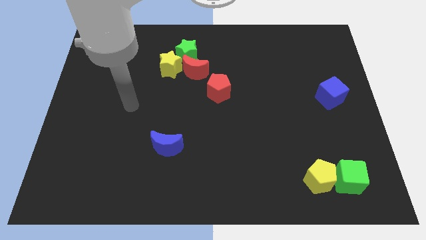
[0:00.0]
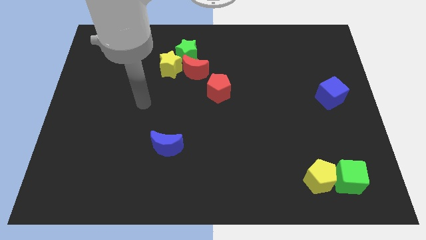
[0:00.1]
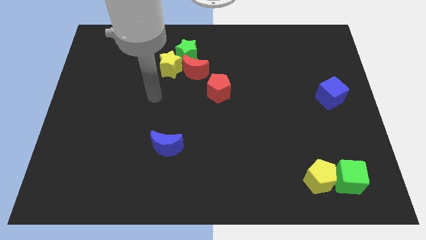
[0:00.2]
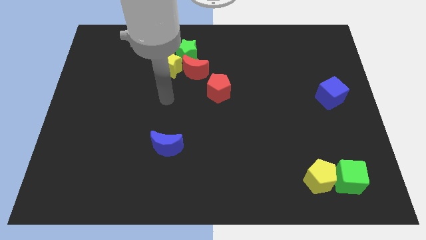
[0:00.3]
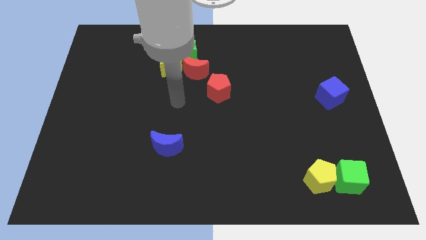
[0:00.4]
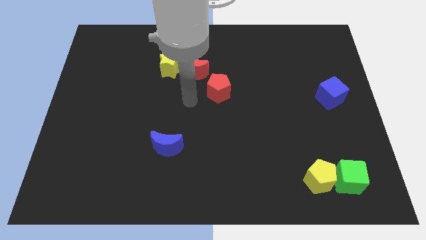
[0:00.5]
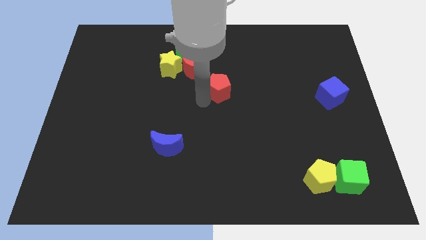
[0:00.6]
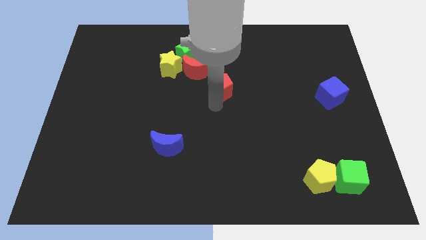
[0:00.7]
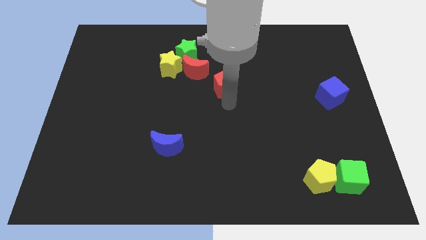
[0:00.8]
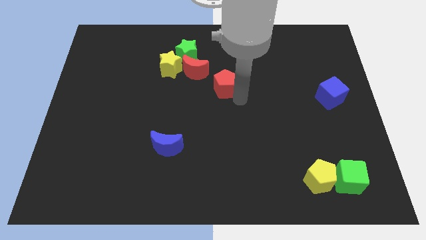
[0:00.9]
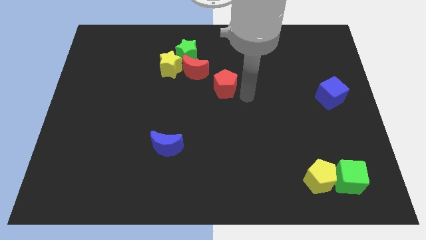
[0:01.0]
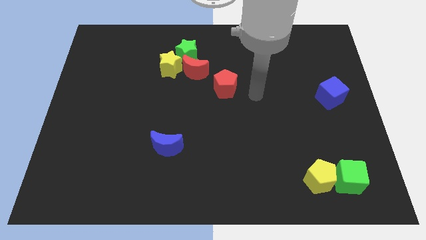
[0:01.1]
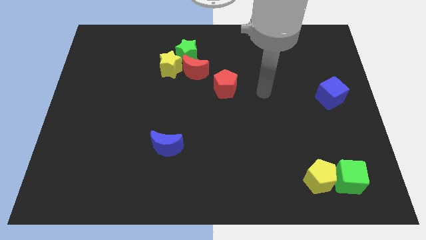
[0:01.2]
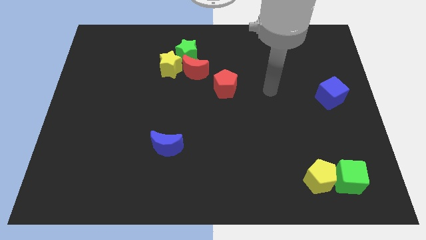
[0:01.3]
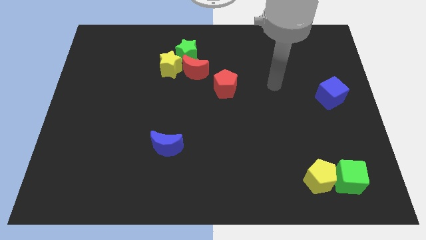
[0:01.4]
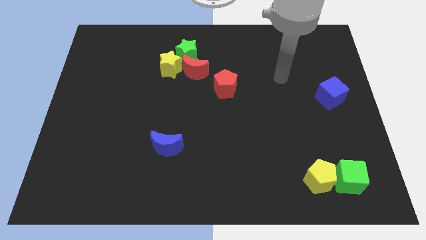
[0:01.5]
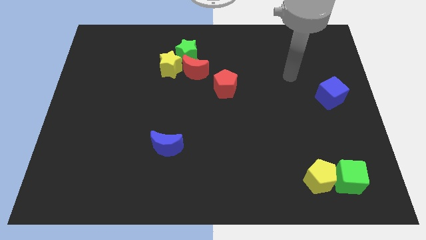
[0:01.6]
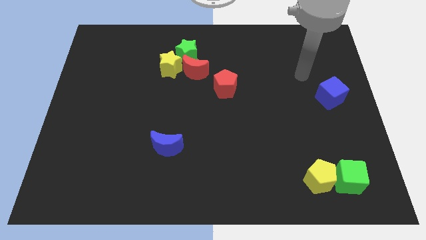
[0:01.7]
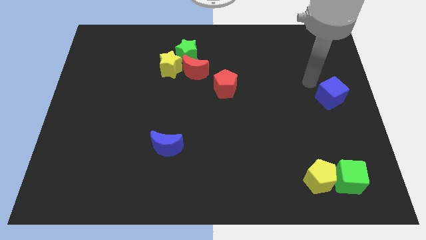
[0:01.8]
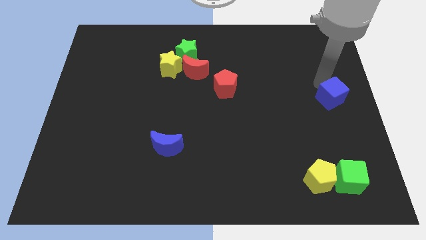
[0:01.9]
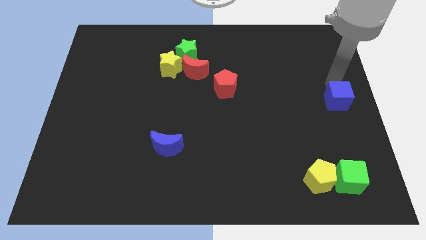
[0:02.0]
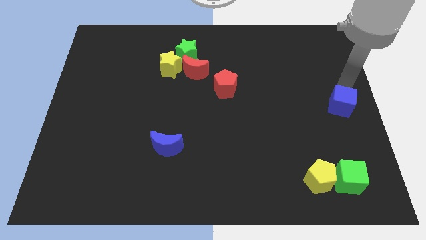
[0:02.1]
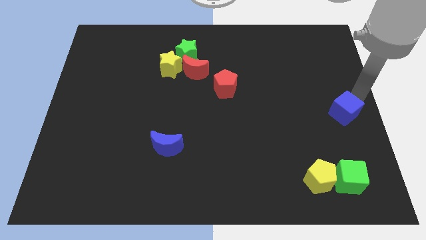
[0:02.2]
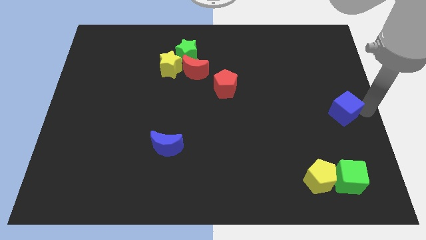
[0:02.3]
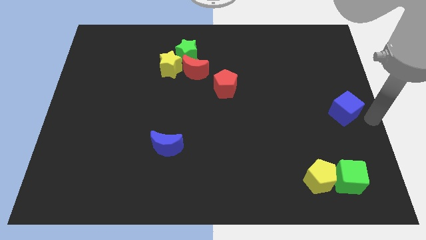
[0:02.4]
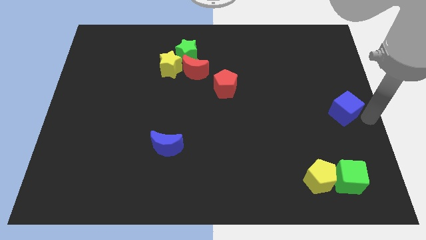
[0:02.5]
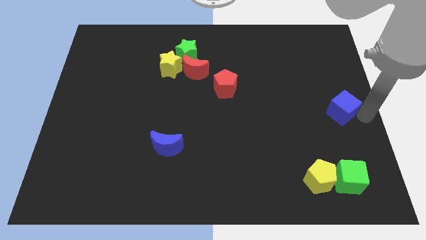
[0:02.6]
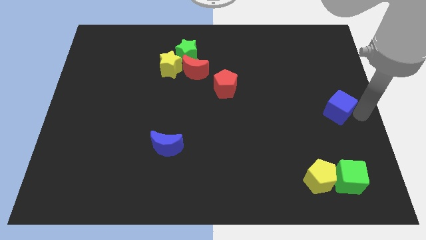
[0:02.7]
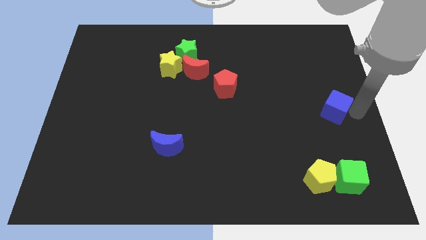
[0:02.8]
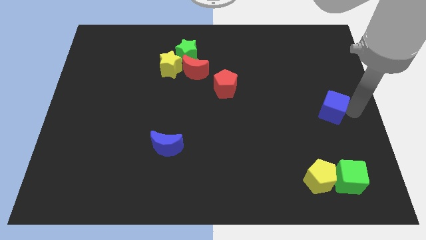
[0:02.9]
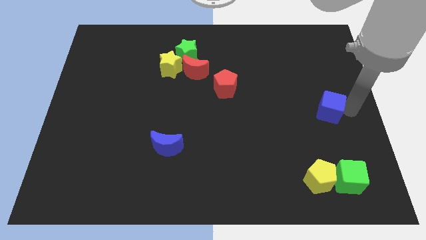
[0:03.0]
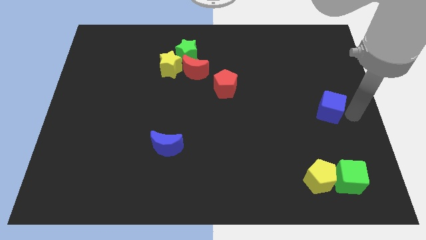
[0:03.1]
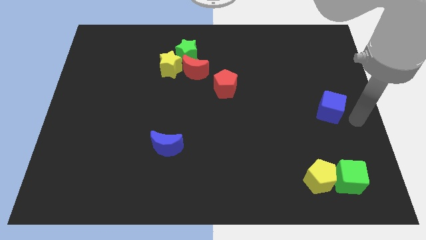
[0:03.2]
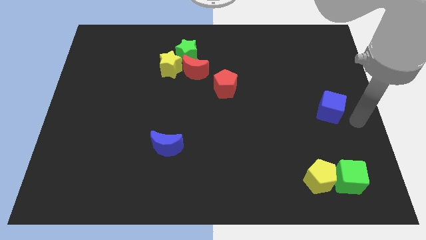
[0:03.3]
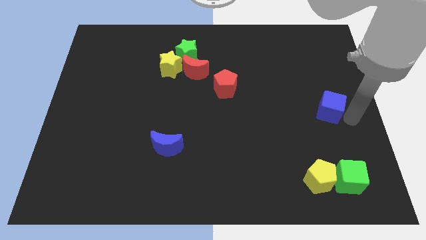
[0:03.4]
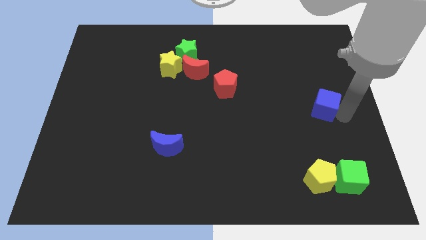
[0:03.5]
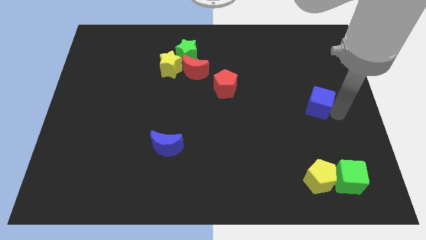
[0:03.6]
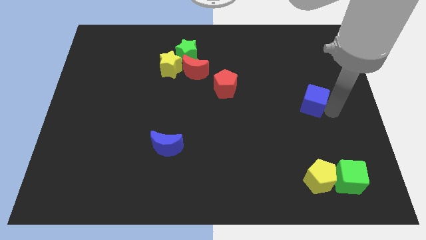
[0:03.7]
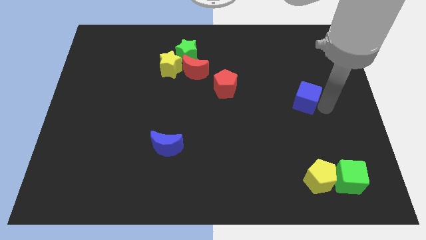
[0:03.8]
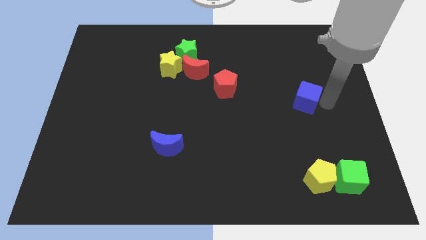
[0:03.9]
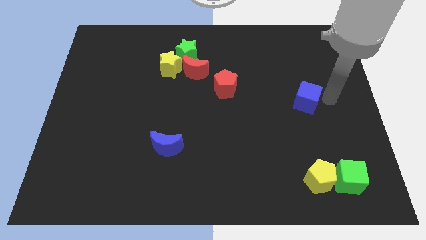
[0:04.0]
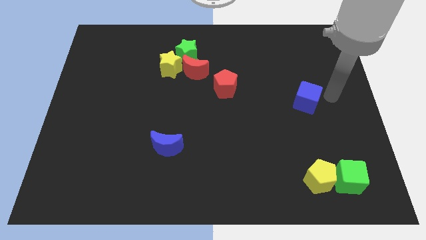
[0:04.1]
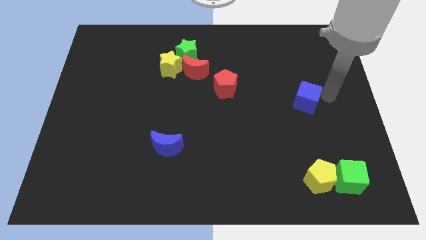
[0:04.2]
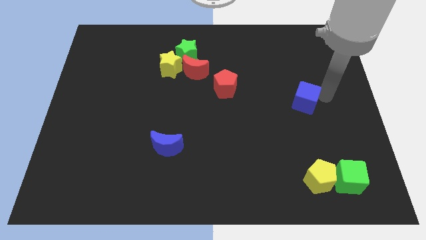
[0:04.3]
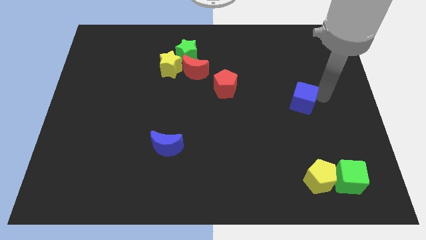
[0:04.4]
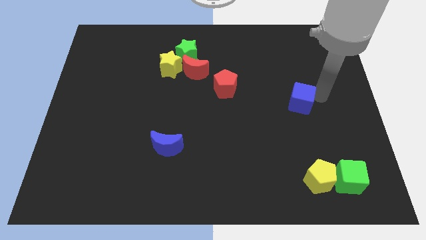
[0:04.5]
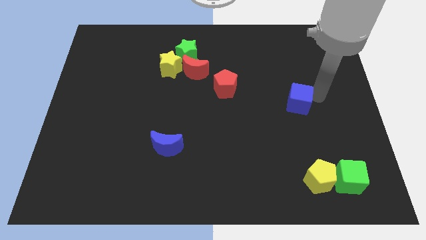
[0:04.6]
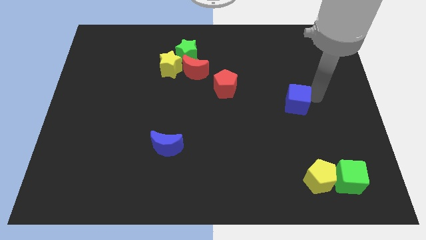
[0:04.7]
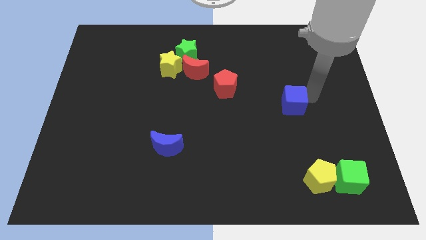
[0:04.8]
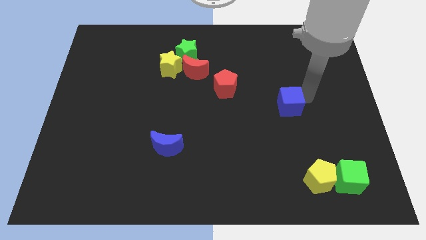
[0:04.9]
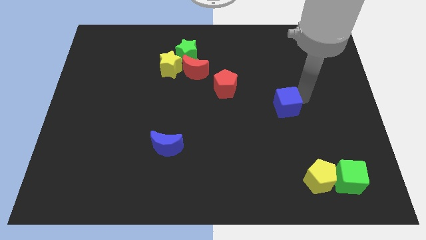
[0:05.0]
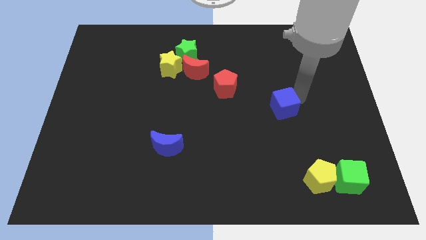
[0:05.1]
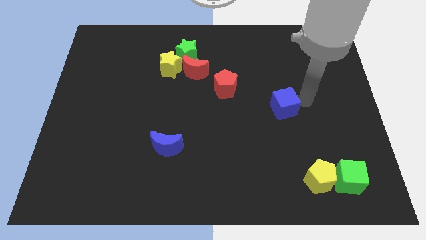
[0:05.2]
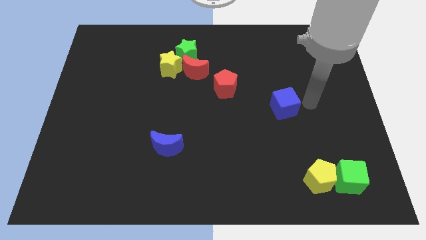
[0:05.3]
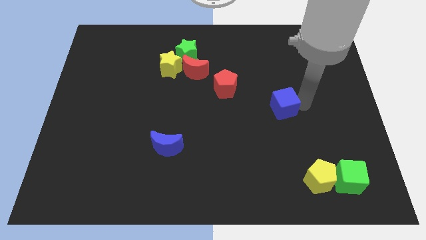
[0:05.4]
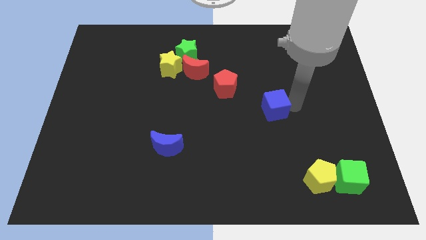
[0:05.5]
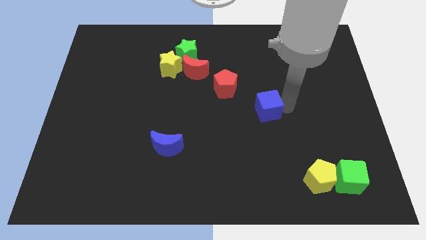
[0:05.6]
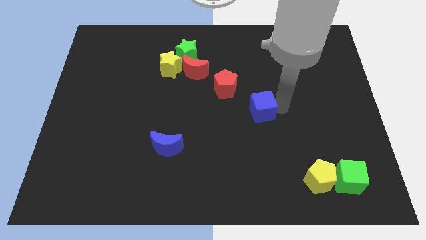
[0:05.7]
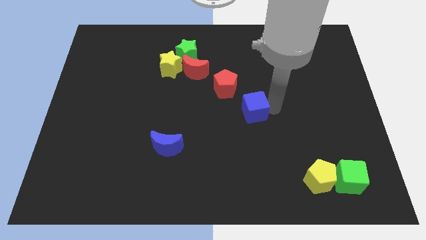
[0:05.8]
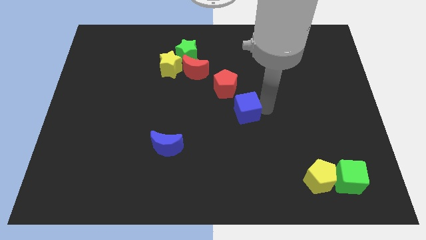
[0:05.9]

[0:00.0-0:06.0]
put the blue cube to the bottom of the red pentagon
